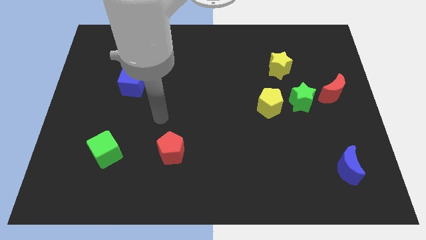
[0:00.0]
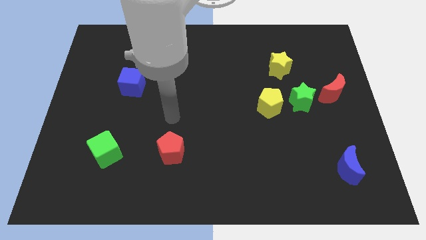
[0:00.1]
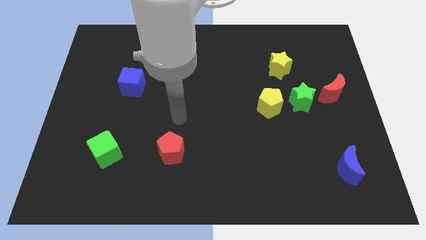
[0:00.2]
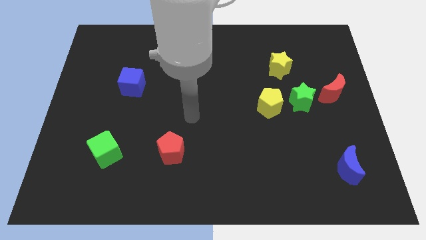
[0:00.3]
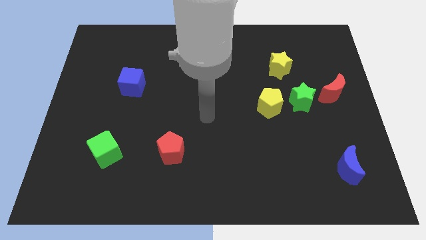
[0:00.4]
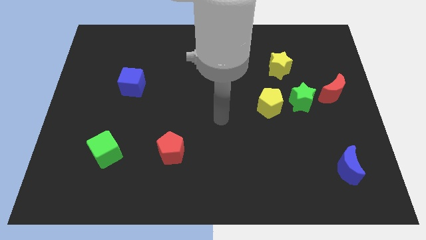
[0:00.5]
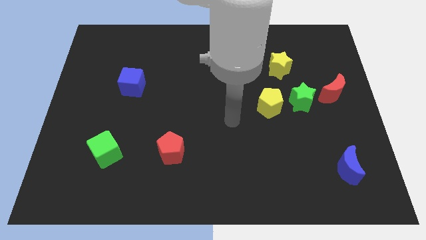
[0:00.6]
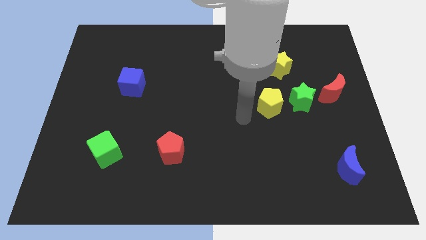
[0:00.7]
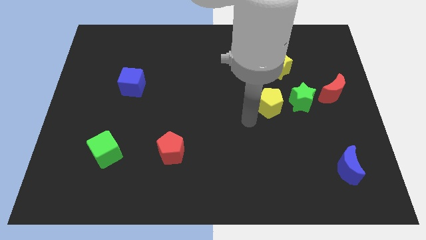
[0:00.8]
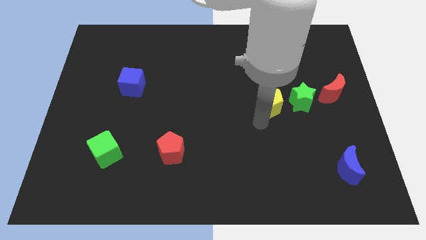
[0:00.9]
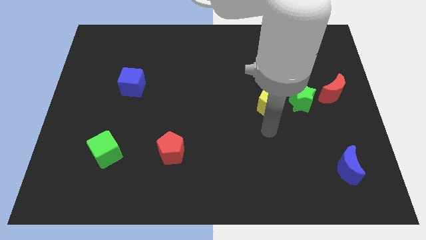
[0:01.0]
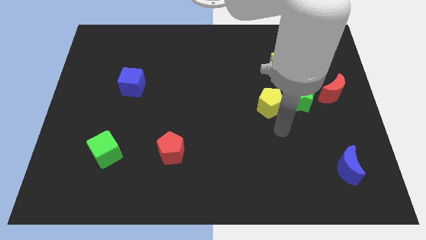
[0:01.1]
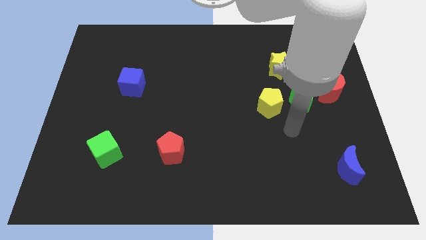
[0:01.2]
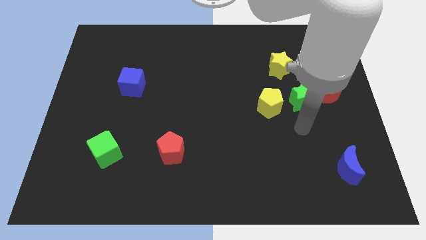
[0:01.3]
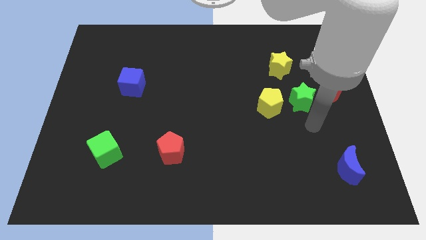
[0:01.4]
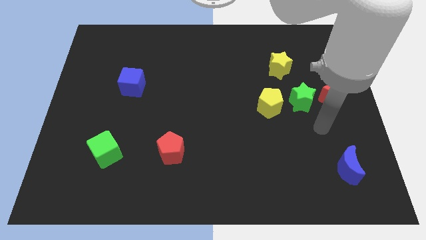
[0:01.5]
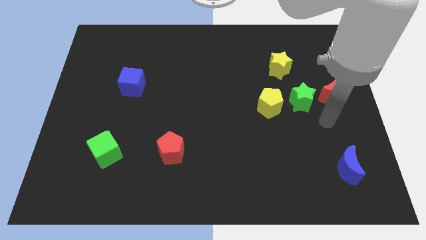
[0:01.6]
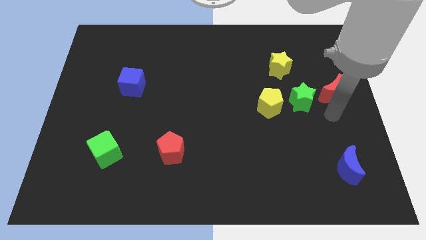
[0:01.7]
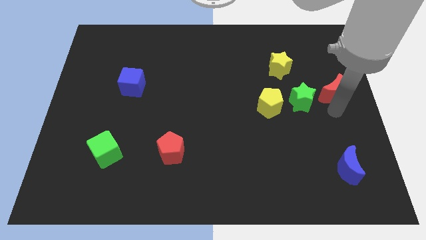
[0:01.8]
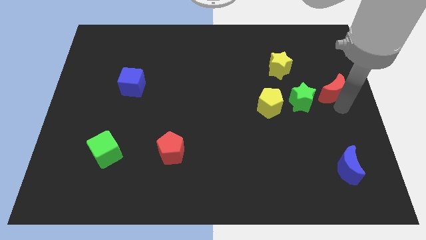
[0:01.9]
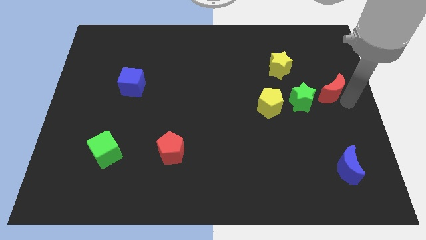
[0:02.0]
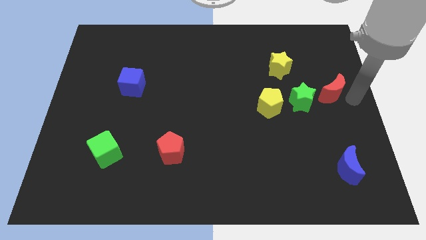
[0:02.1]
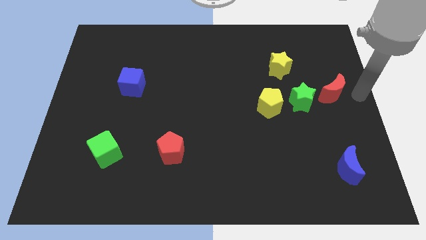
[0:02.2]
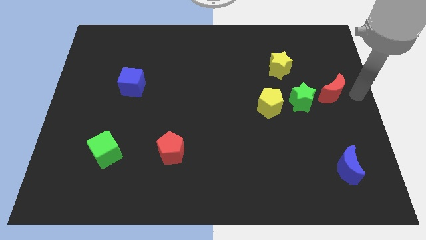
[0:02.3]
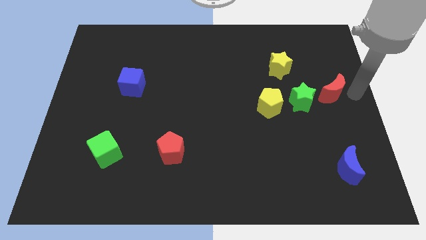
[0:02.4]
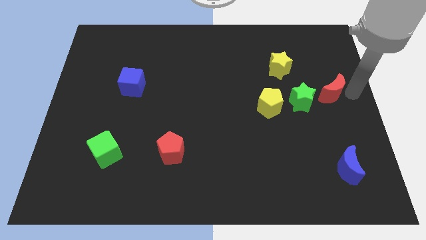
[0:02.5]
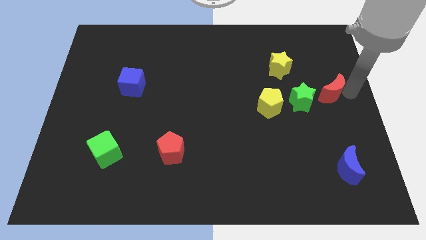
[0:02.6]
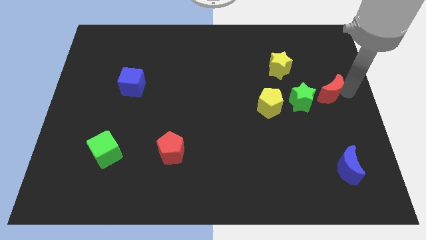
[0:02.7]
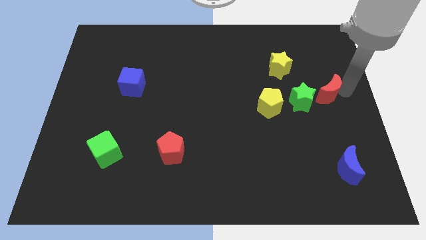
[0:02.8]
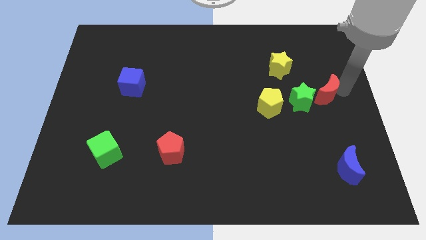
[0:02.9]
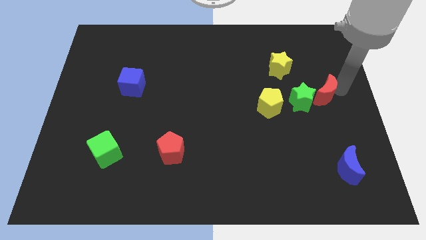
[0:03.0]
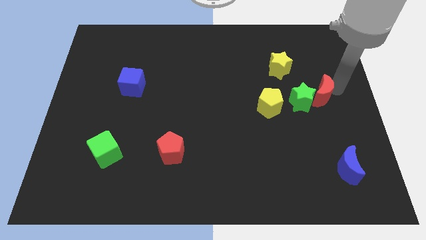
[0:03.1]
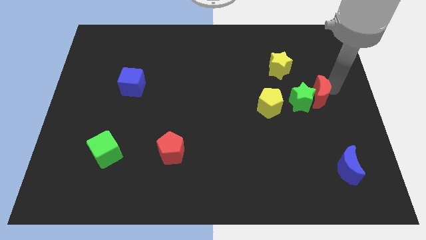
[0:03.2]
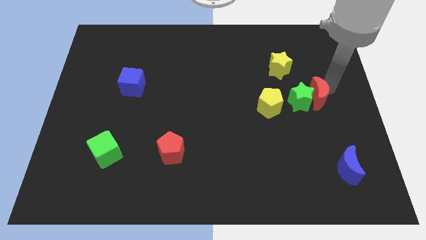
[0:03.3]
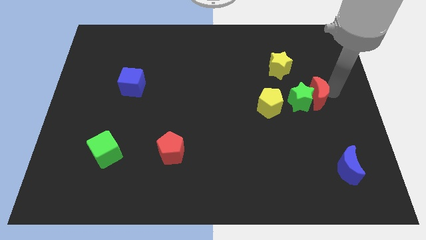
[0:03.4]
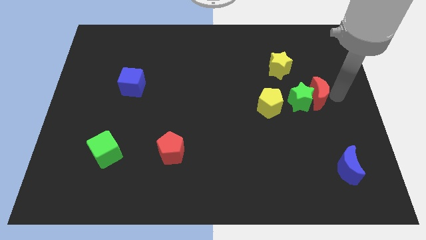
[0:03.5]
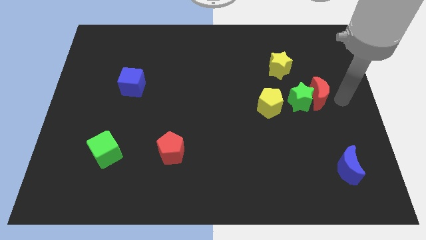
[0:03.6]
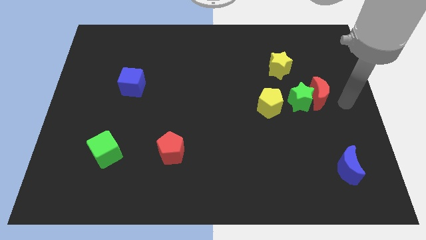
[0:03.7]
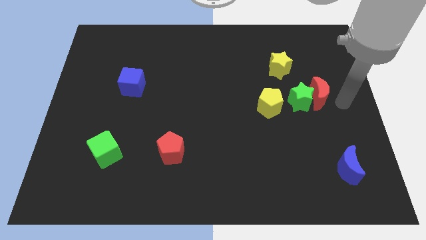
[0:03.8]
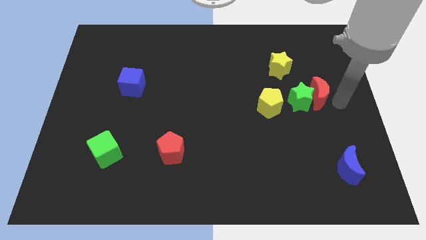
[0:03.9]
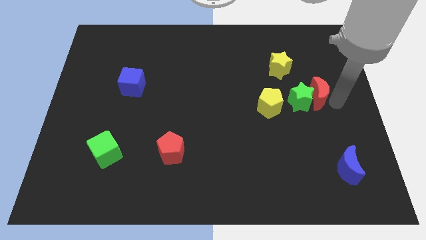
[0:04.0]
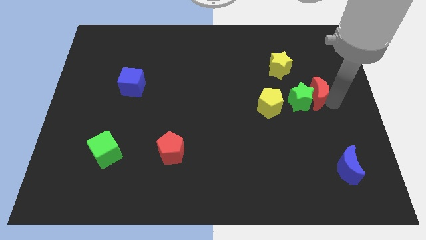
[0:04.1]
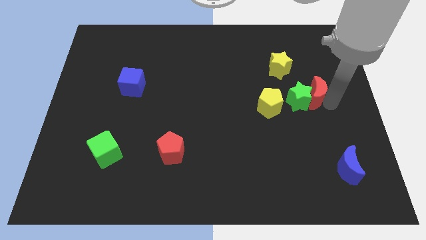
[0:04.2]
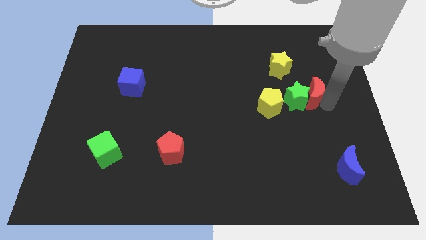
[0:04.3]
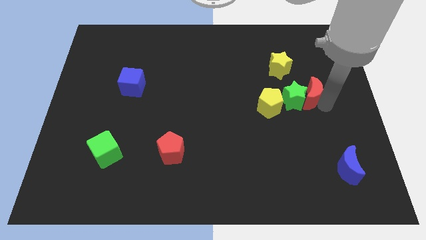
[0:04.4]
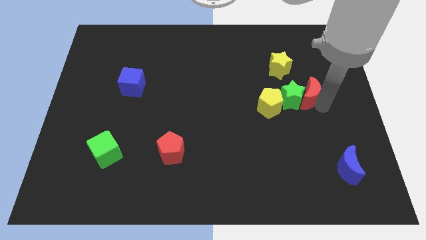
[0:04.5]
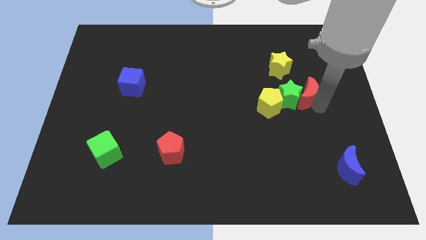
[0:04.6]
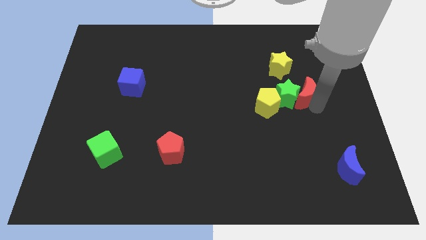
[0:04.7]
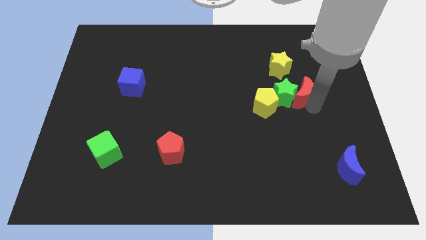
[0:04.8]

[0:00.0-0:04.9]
slide the red moon to the top right of the yellow pentagon

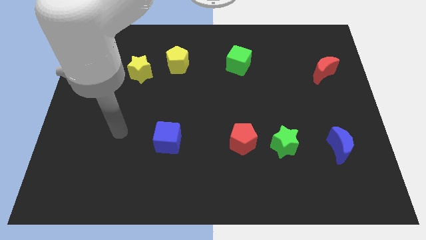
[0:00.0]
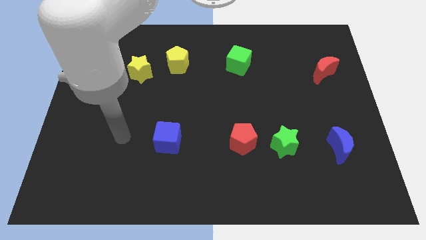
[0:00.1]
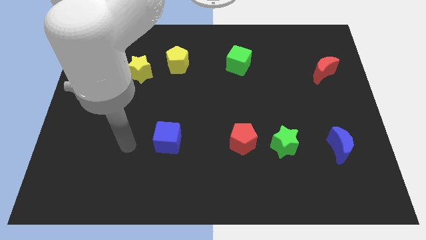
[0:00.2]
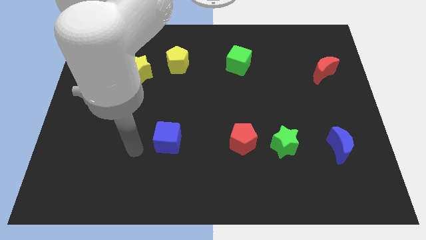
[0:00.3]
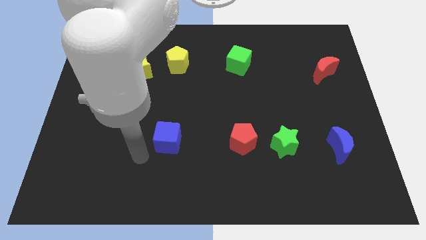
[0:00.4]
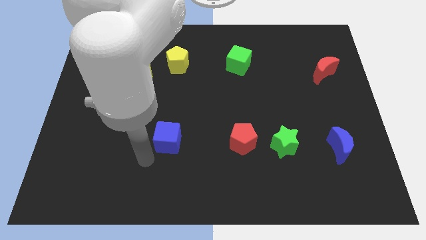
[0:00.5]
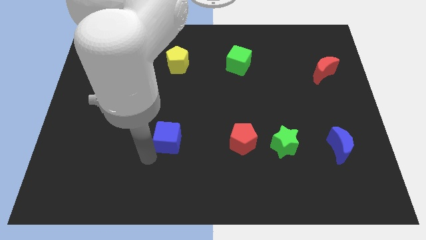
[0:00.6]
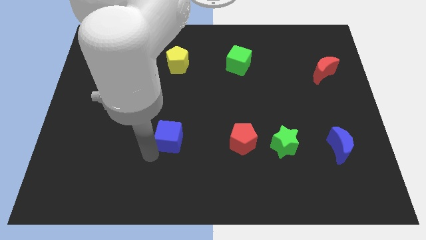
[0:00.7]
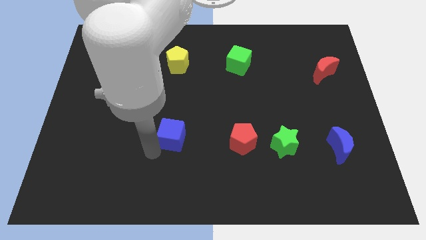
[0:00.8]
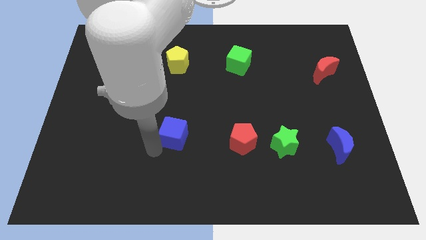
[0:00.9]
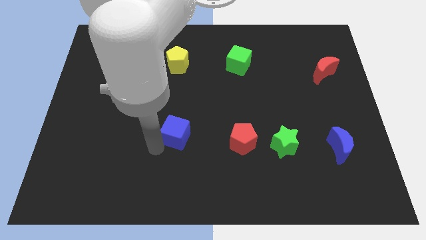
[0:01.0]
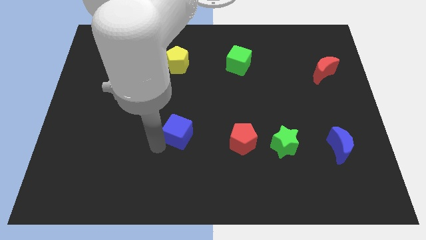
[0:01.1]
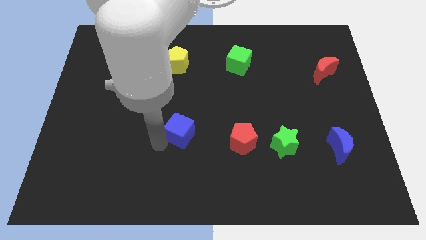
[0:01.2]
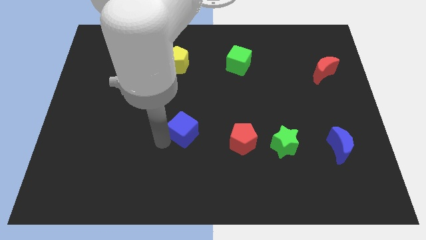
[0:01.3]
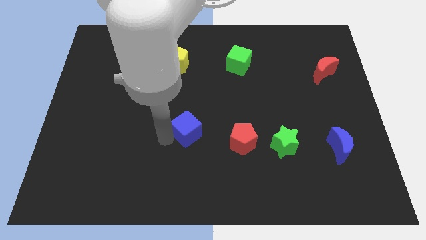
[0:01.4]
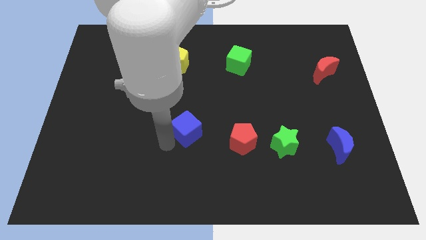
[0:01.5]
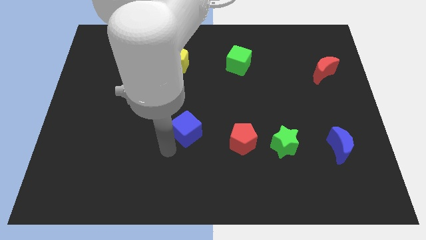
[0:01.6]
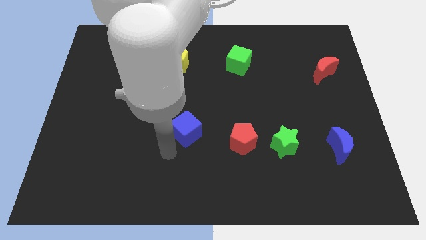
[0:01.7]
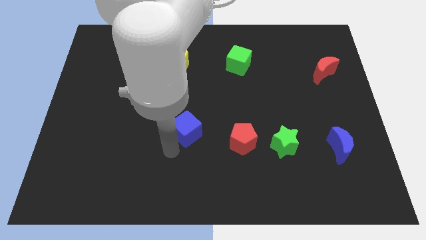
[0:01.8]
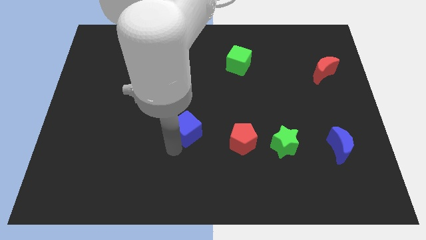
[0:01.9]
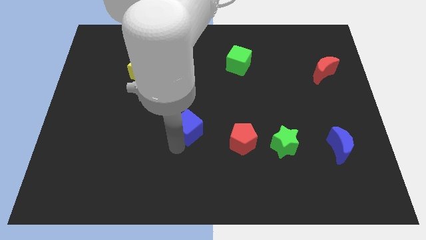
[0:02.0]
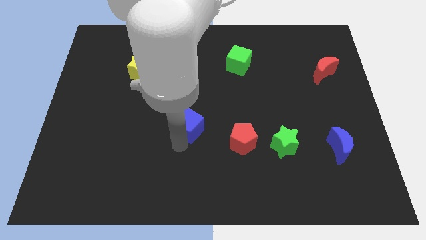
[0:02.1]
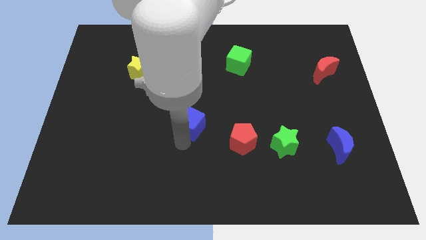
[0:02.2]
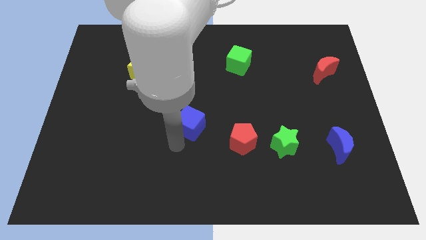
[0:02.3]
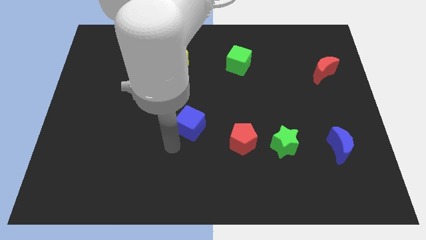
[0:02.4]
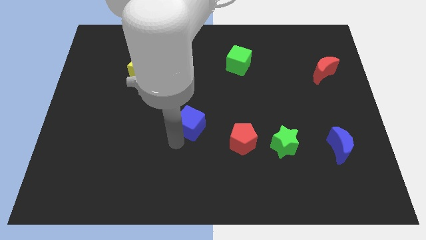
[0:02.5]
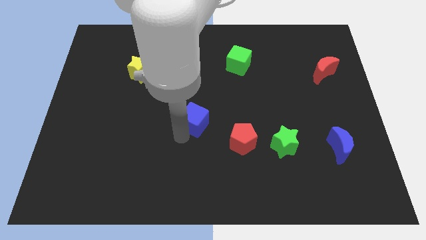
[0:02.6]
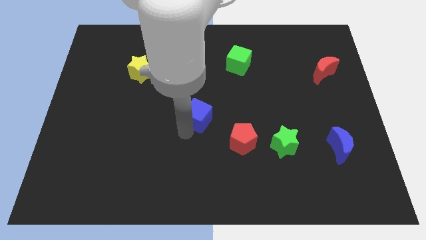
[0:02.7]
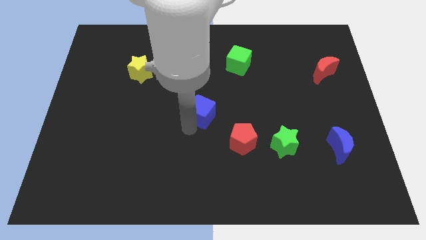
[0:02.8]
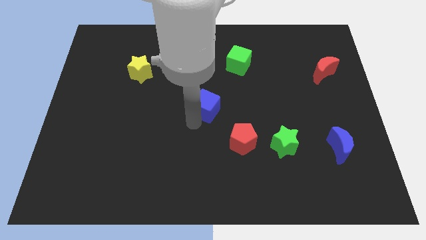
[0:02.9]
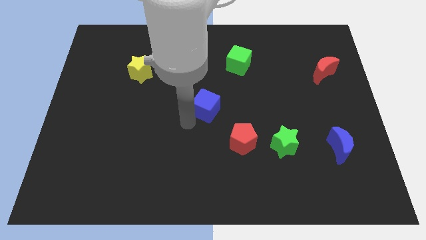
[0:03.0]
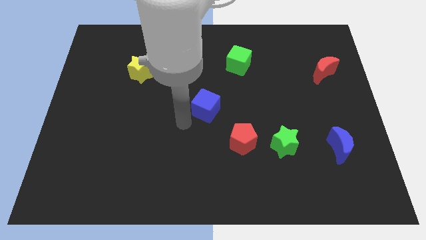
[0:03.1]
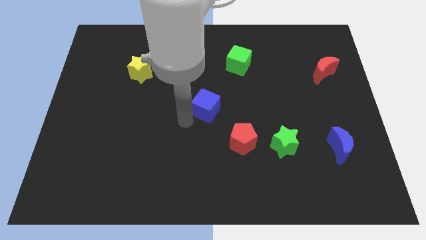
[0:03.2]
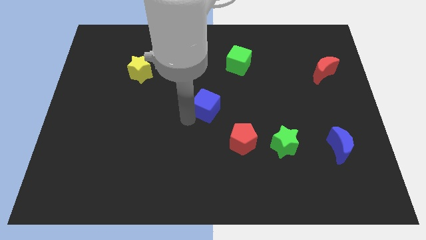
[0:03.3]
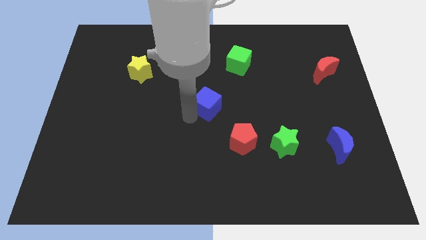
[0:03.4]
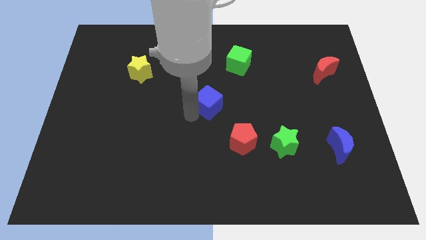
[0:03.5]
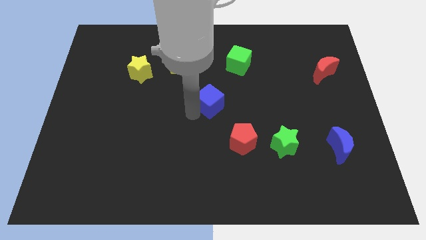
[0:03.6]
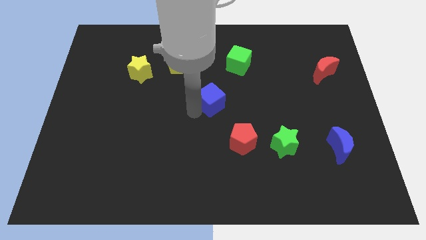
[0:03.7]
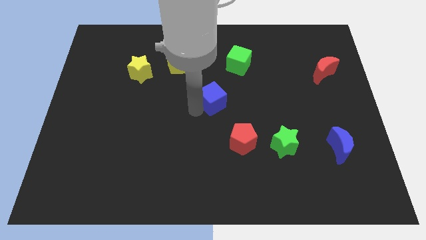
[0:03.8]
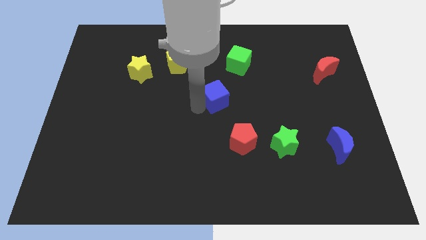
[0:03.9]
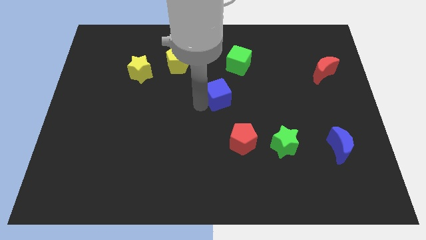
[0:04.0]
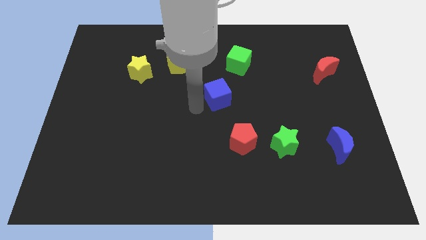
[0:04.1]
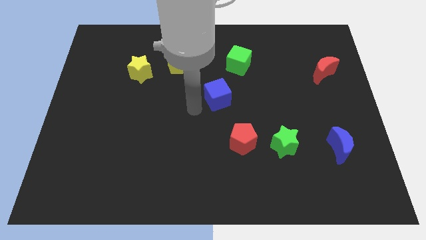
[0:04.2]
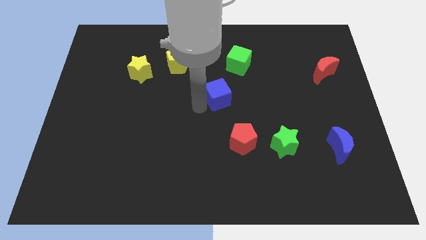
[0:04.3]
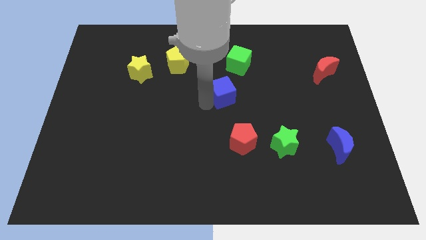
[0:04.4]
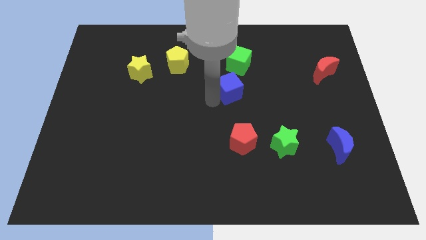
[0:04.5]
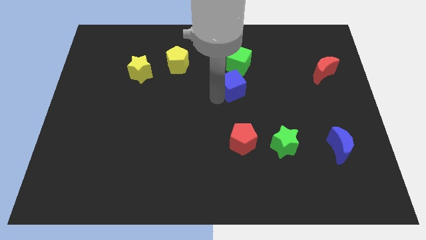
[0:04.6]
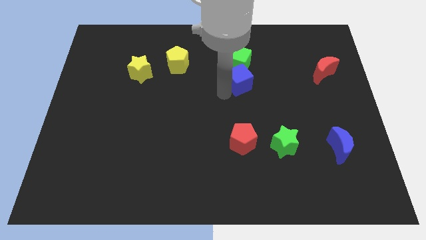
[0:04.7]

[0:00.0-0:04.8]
put the blue cube diagonally down and to the right of the green cube
